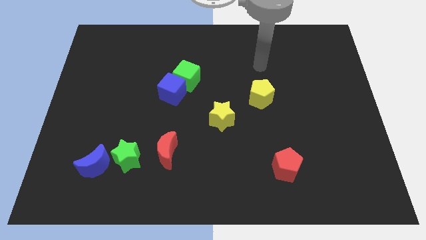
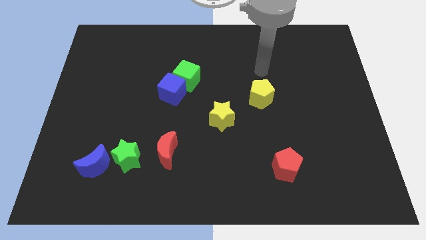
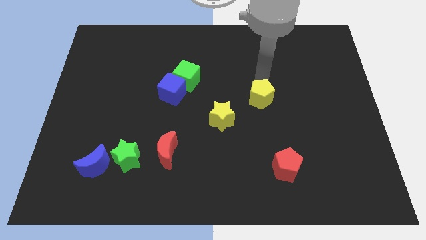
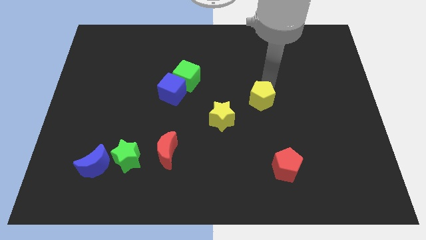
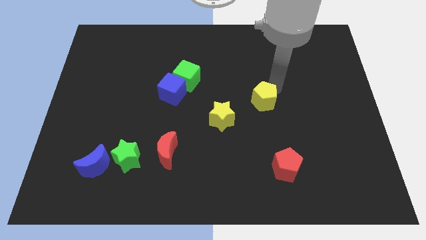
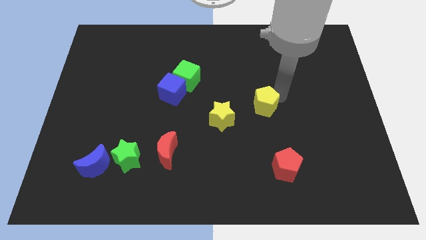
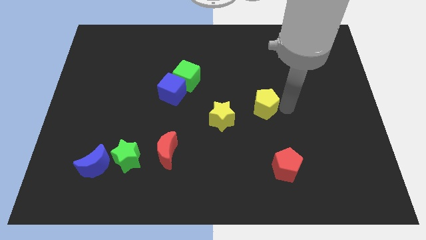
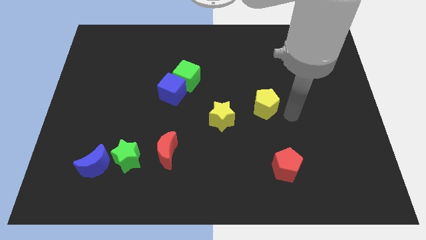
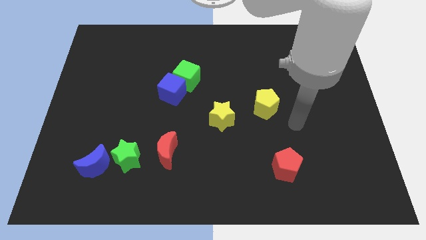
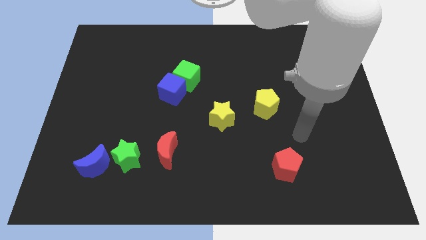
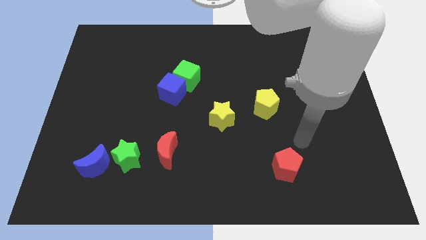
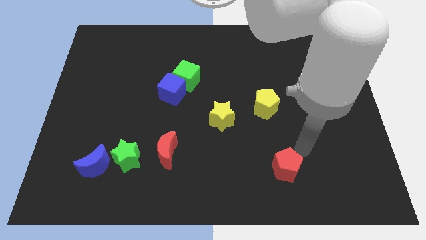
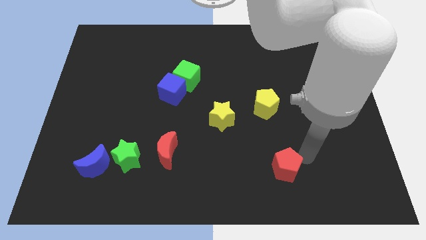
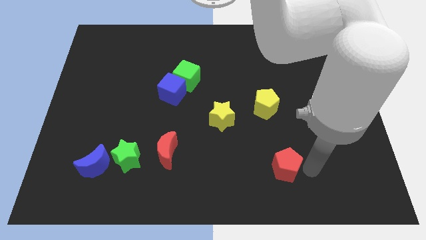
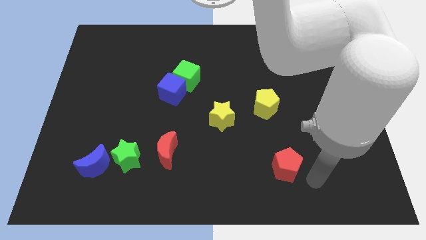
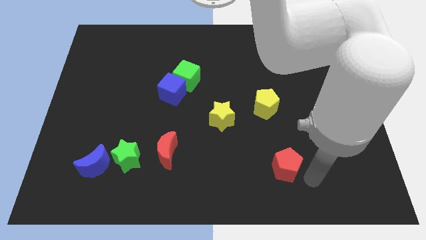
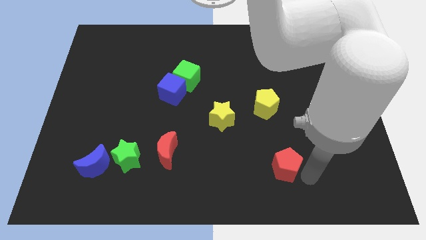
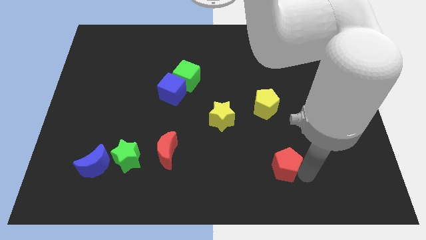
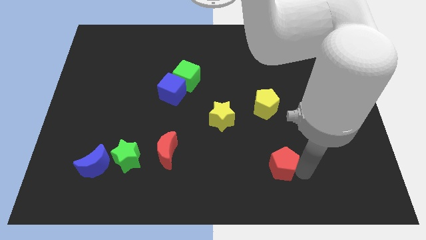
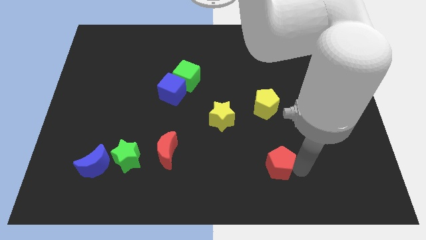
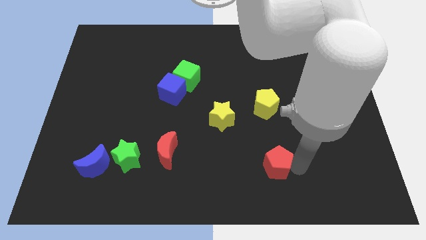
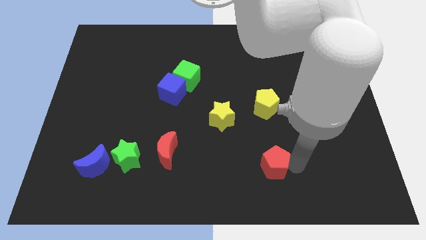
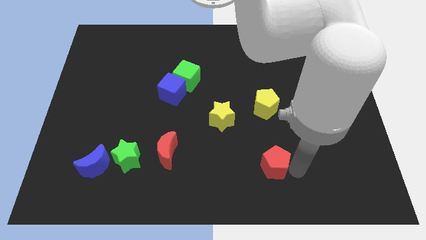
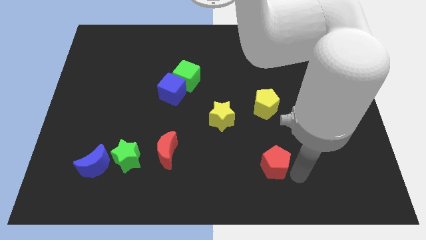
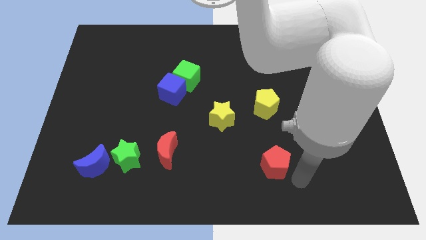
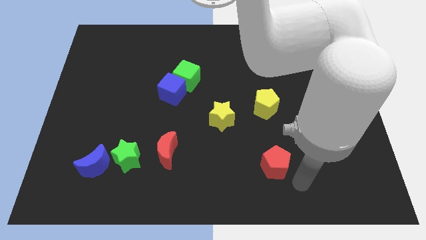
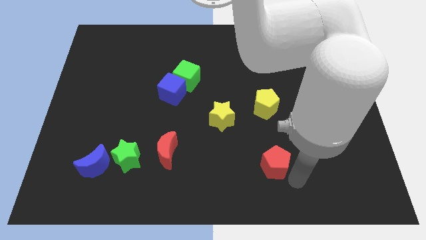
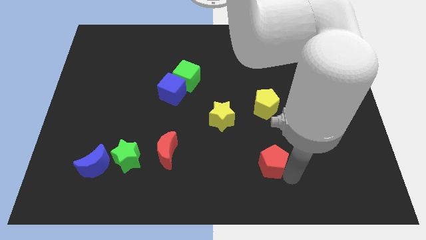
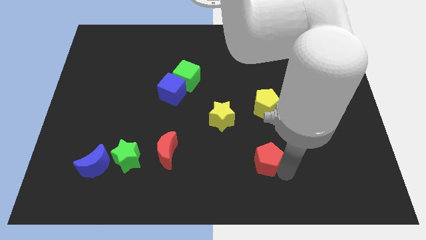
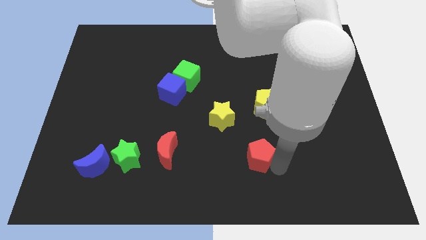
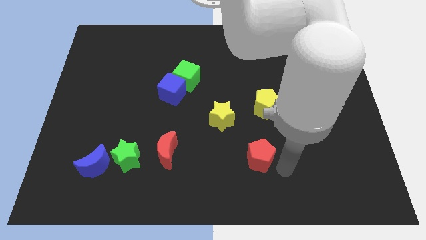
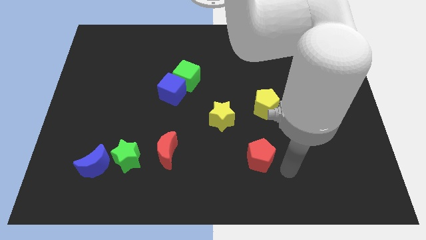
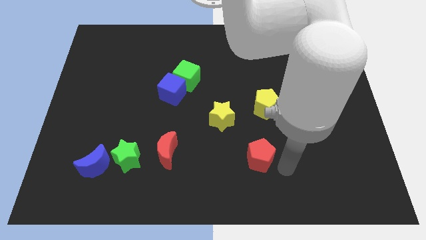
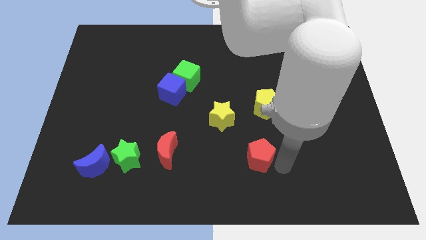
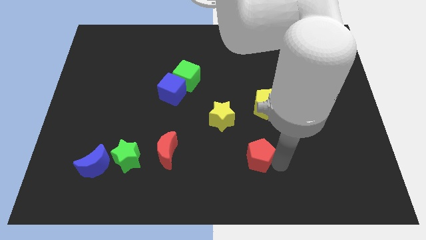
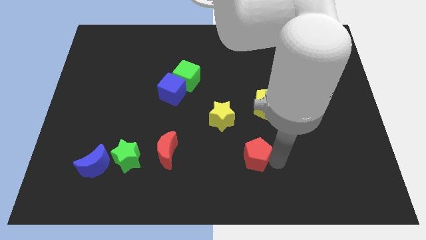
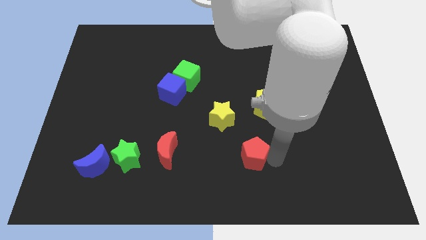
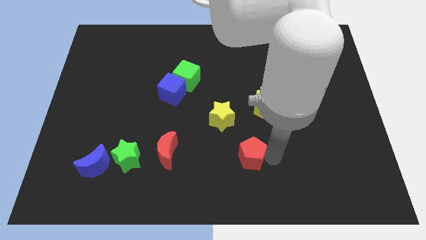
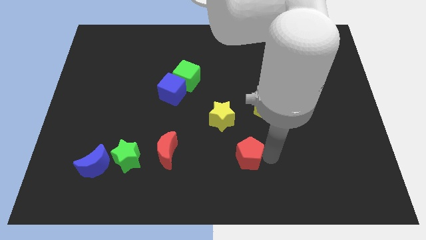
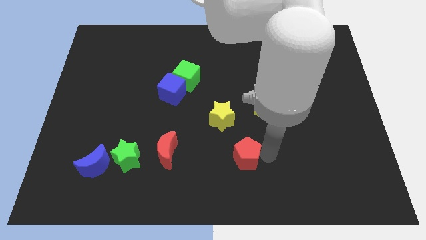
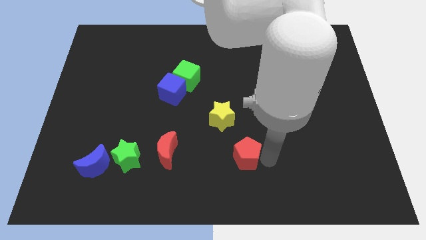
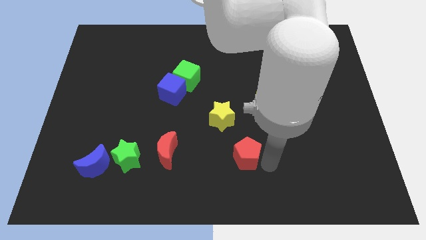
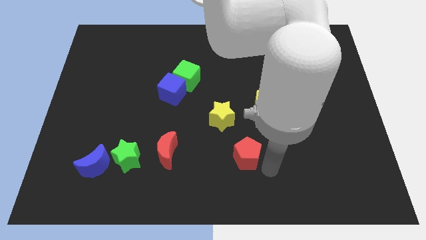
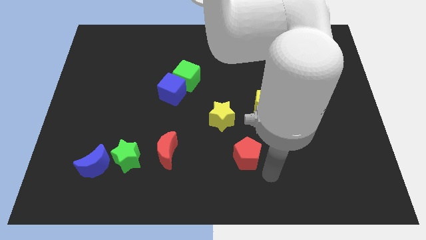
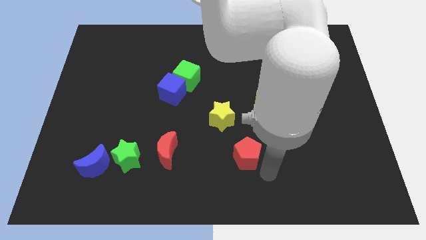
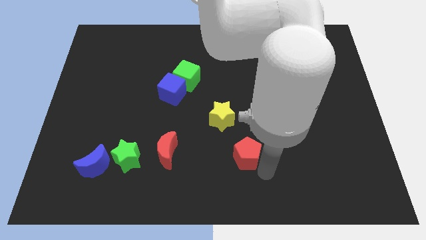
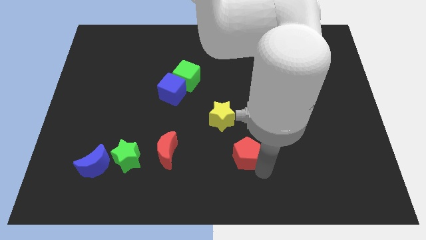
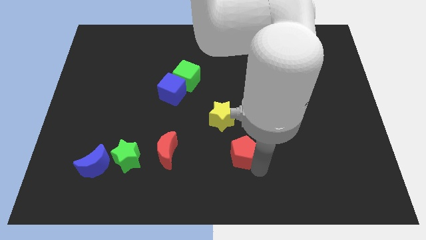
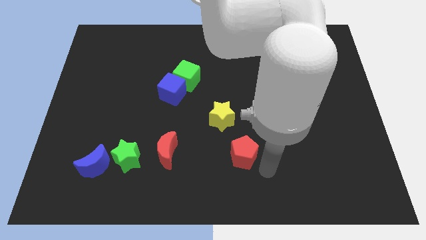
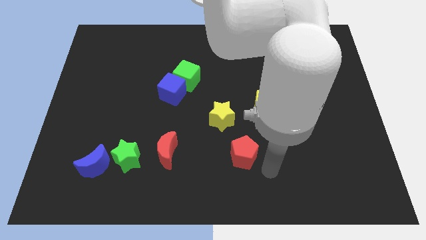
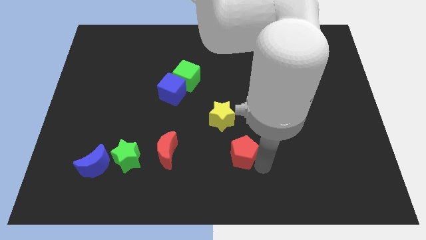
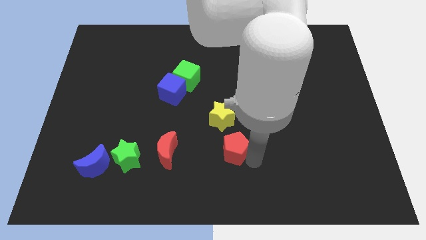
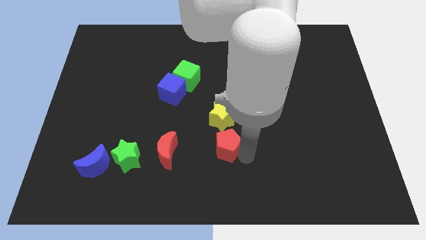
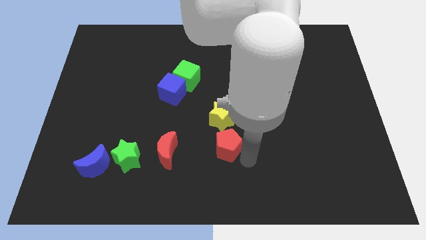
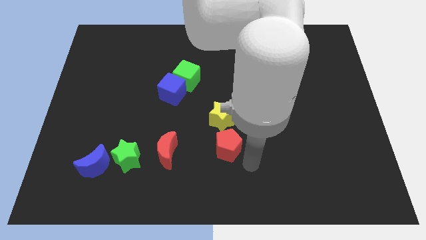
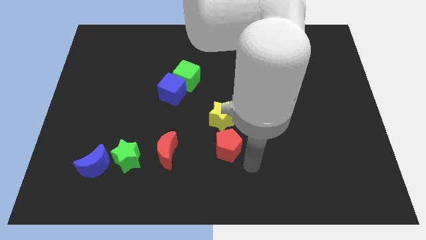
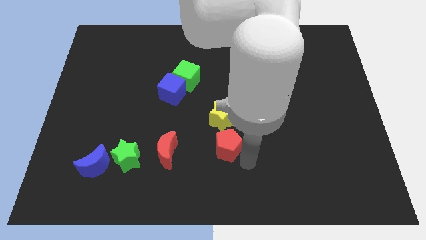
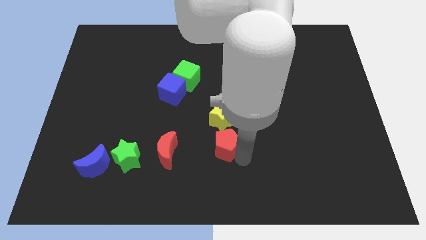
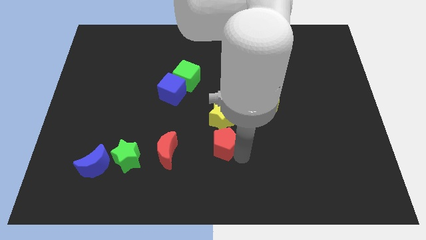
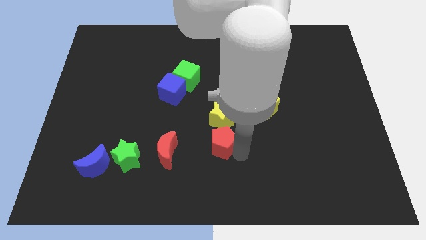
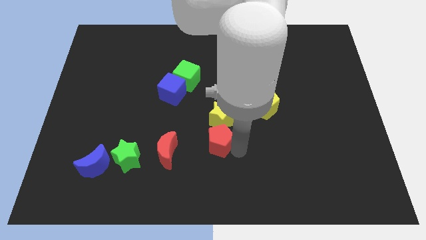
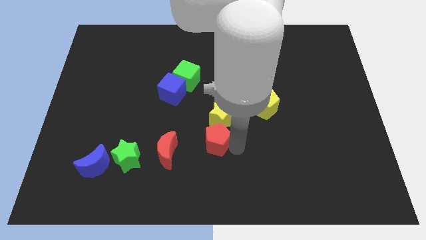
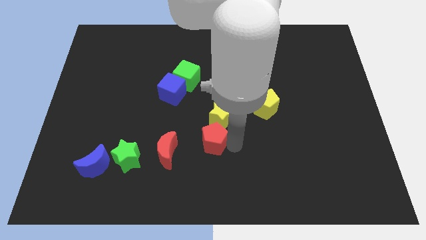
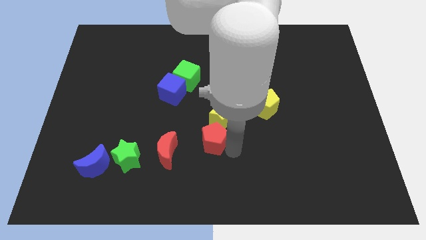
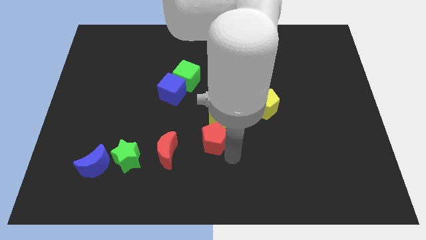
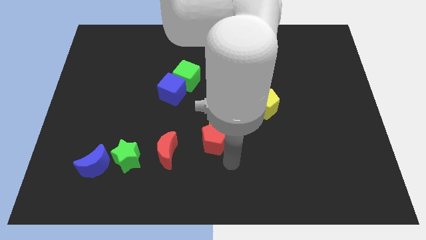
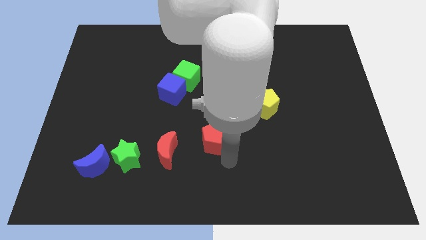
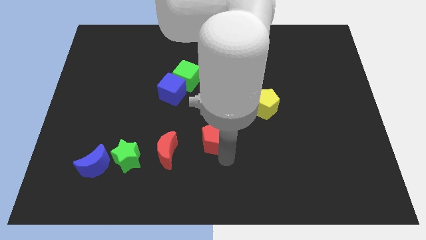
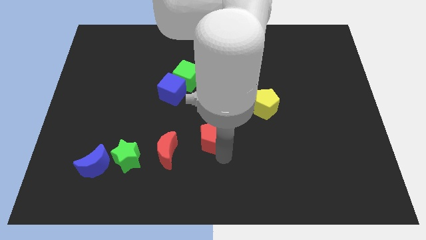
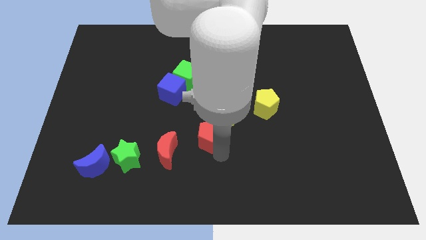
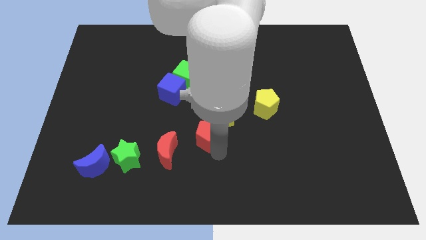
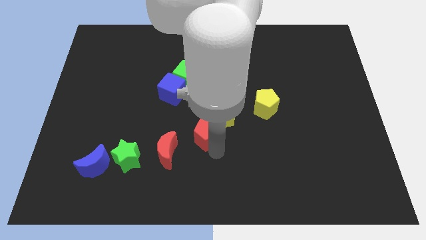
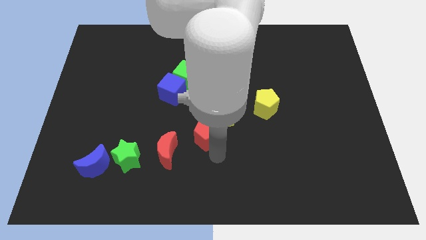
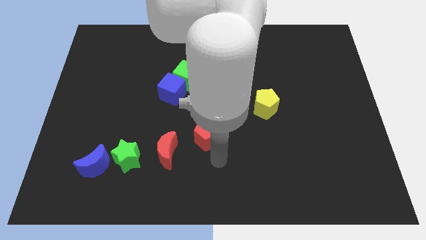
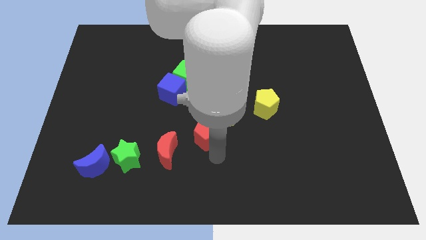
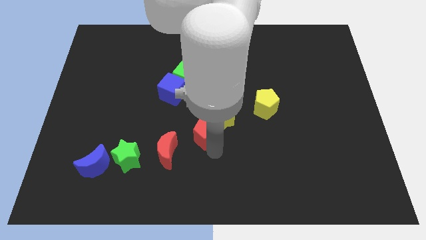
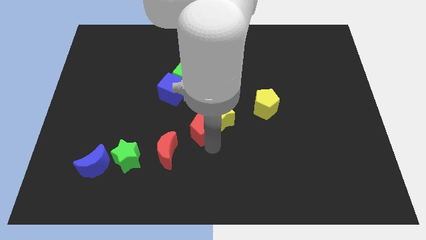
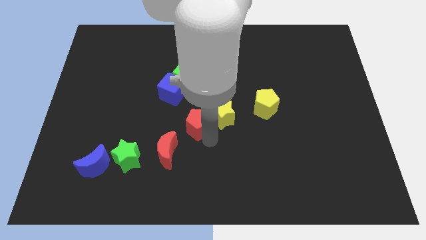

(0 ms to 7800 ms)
put the red pentagon to the bottom of the green cube
